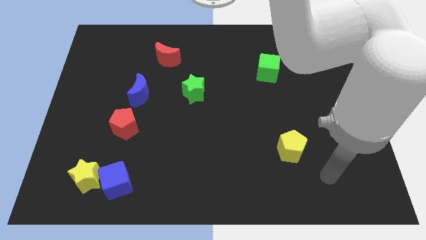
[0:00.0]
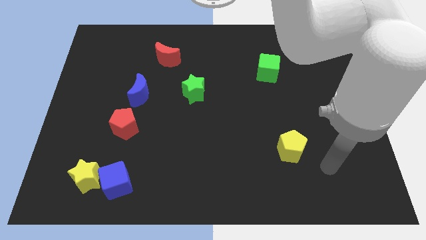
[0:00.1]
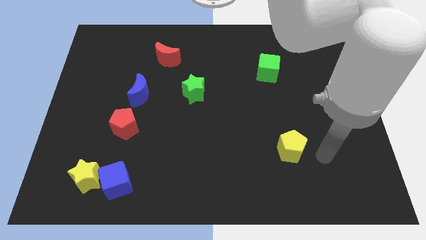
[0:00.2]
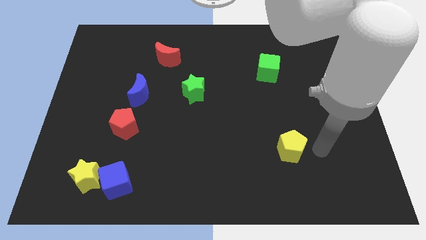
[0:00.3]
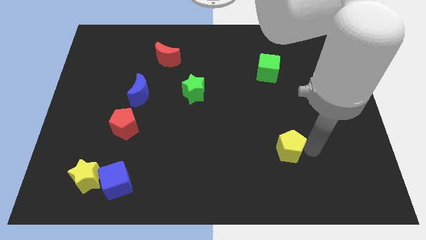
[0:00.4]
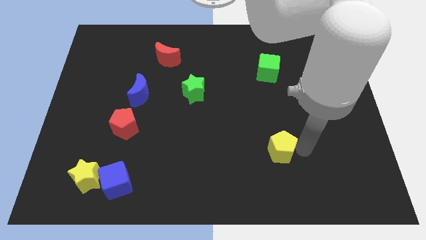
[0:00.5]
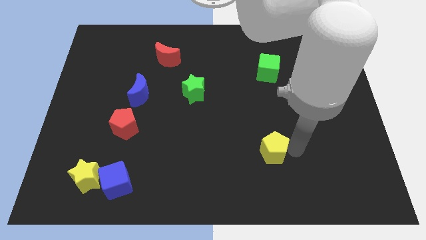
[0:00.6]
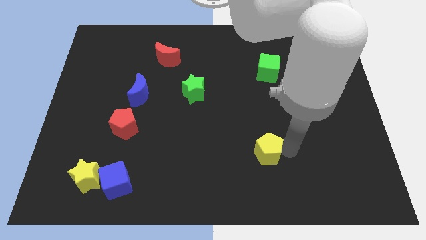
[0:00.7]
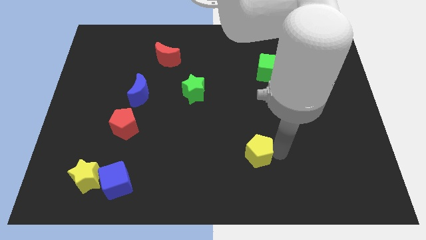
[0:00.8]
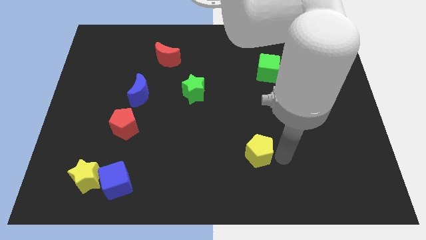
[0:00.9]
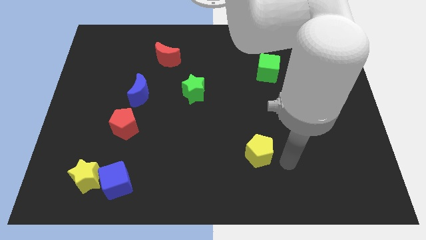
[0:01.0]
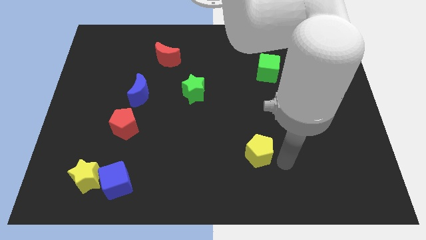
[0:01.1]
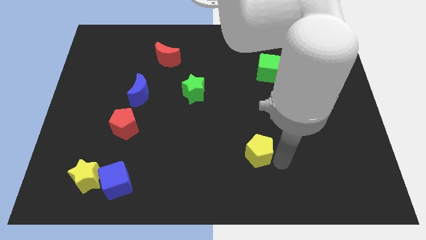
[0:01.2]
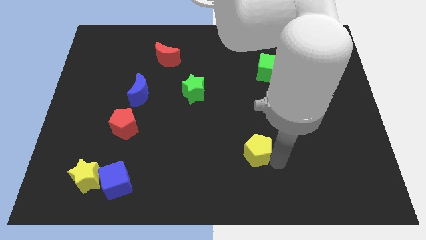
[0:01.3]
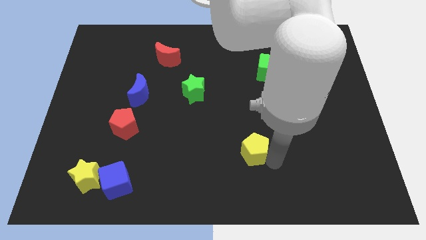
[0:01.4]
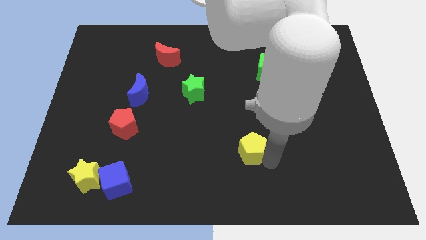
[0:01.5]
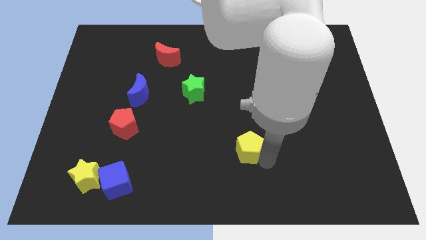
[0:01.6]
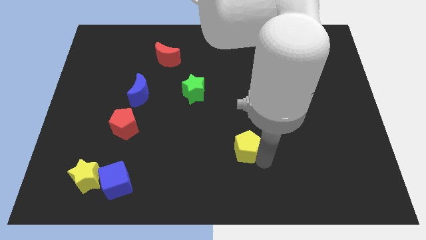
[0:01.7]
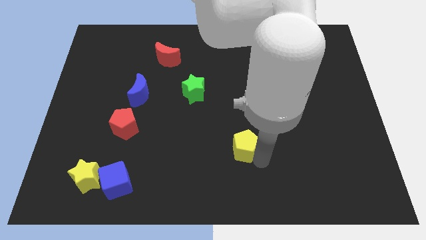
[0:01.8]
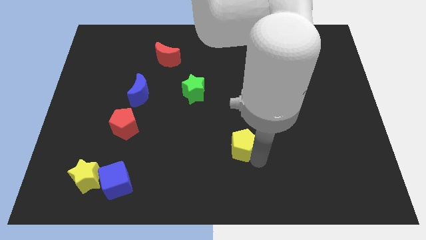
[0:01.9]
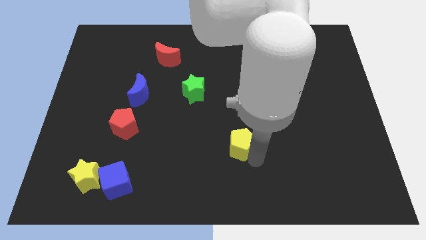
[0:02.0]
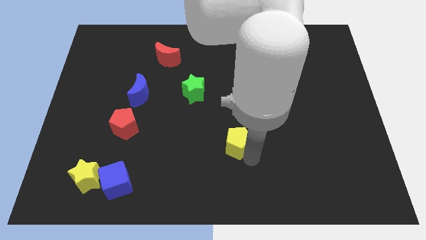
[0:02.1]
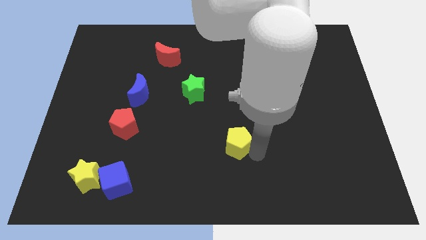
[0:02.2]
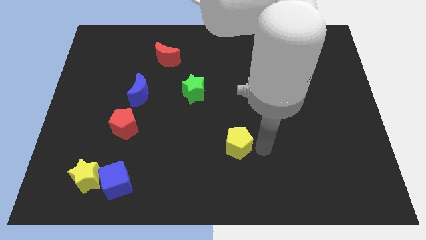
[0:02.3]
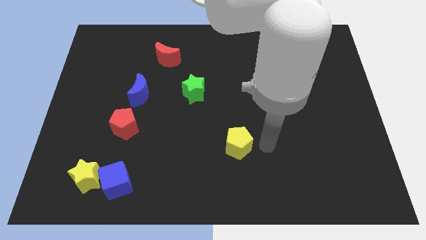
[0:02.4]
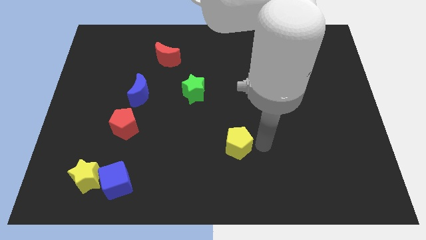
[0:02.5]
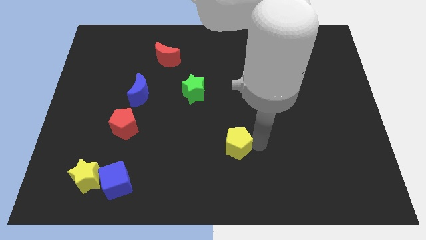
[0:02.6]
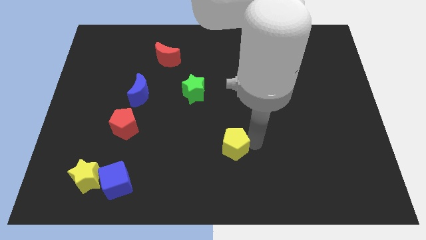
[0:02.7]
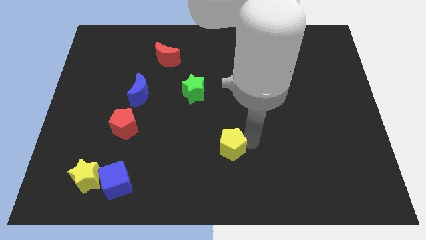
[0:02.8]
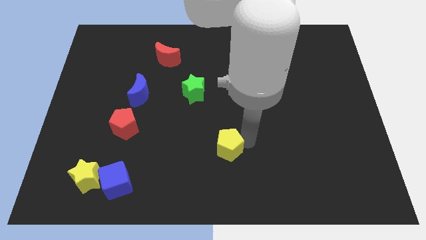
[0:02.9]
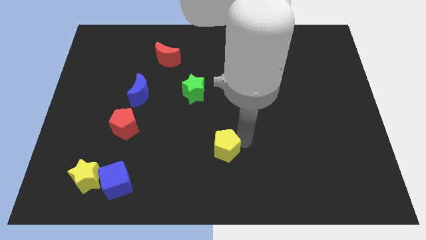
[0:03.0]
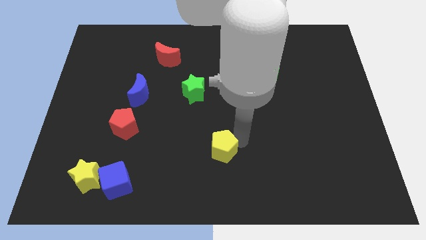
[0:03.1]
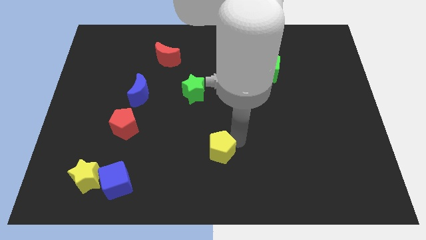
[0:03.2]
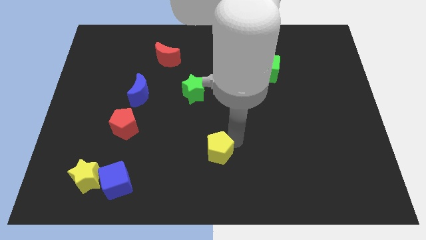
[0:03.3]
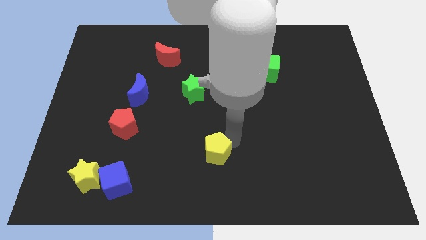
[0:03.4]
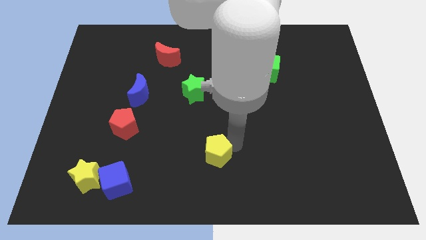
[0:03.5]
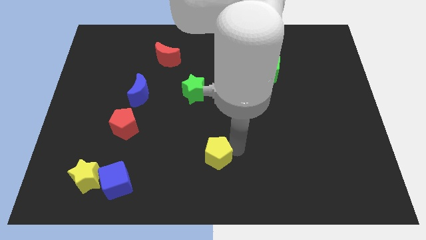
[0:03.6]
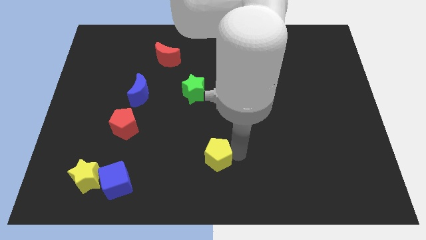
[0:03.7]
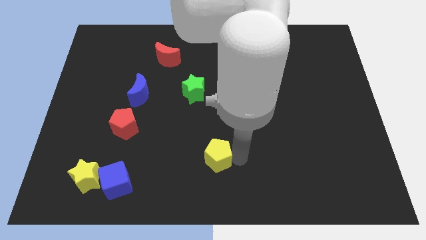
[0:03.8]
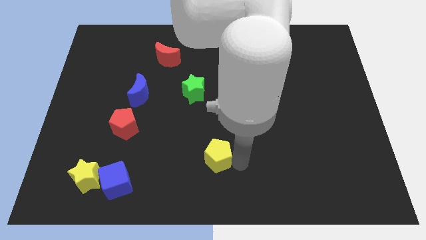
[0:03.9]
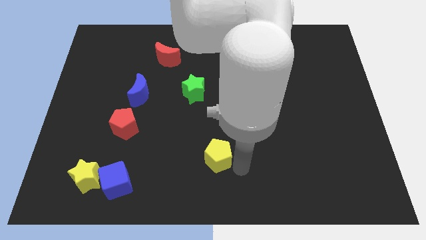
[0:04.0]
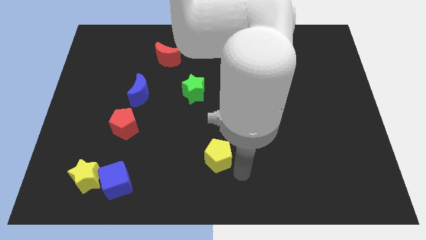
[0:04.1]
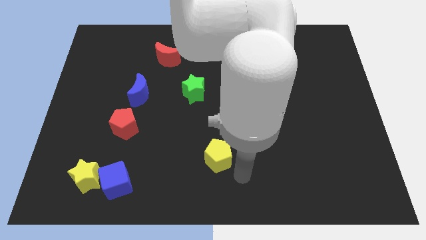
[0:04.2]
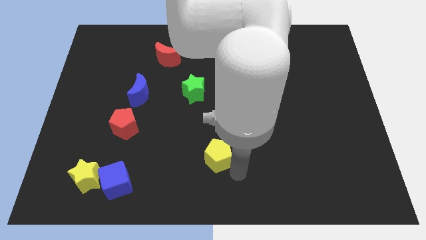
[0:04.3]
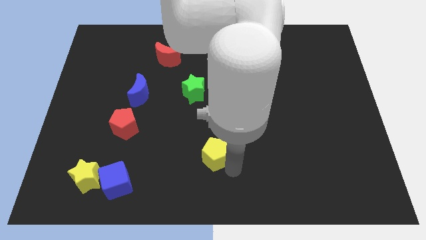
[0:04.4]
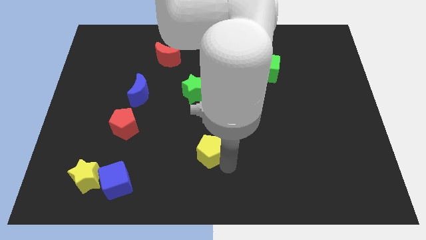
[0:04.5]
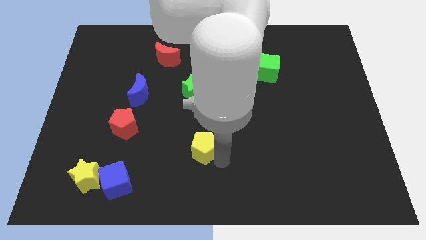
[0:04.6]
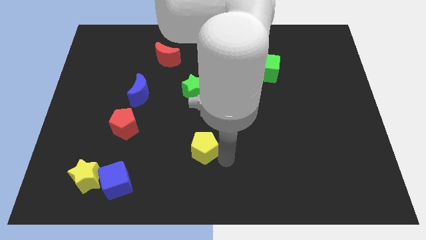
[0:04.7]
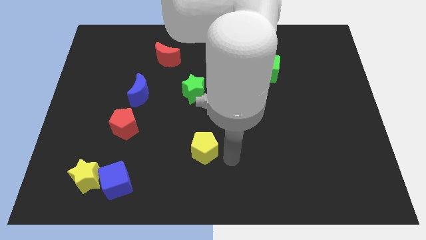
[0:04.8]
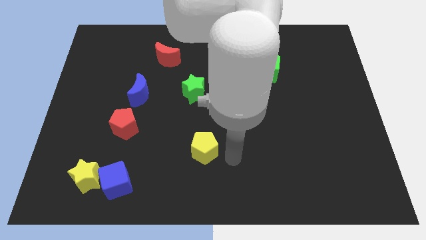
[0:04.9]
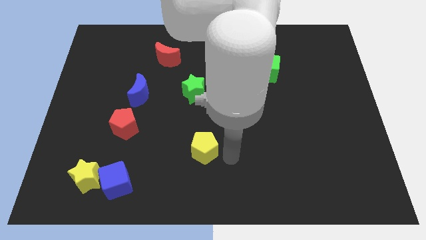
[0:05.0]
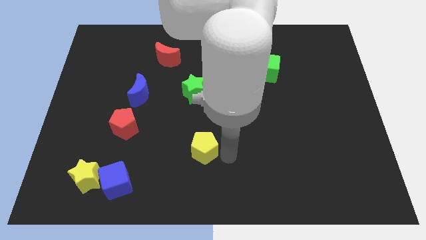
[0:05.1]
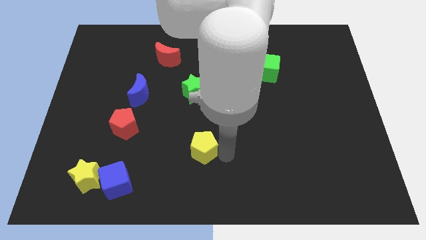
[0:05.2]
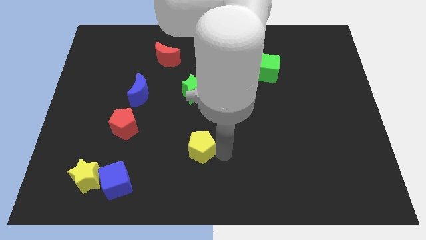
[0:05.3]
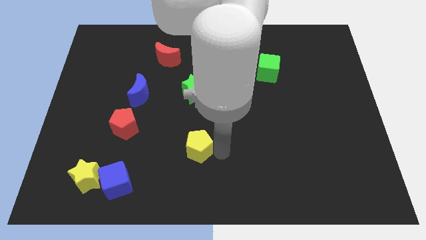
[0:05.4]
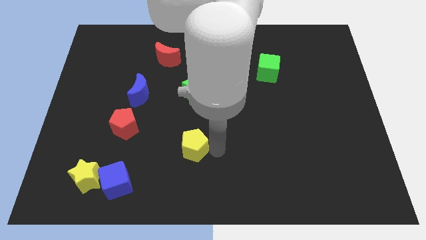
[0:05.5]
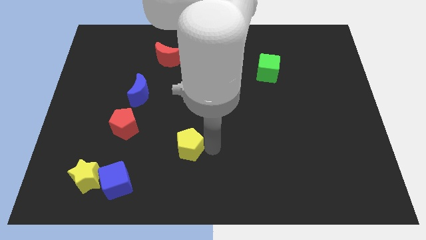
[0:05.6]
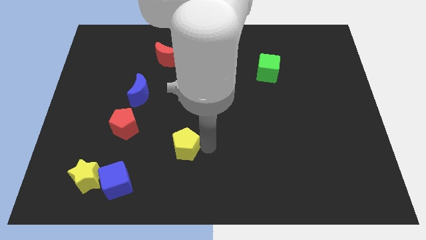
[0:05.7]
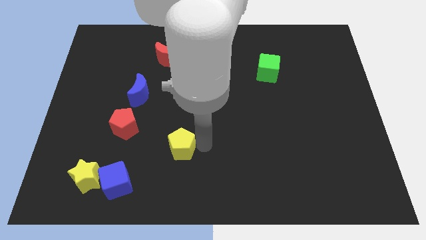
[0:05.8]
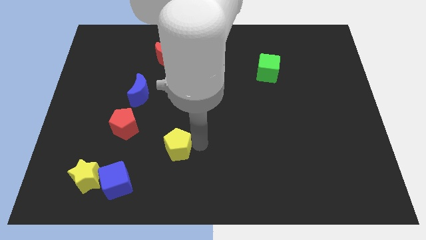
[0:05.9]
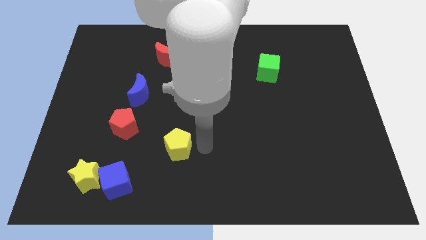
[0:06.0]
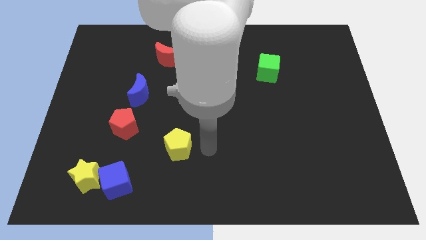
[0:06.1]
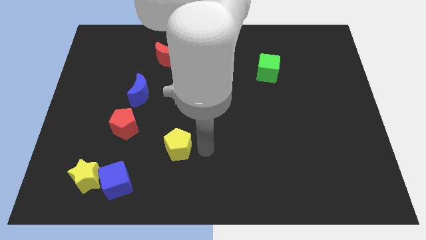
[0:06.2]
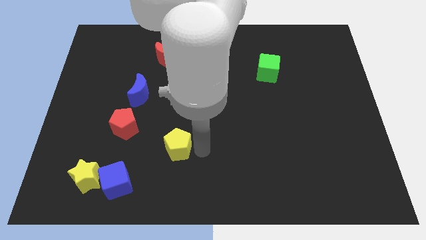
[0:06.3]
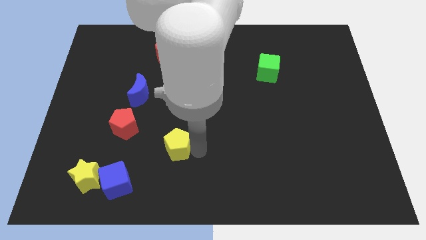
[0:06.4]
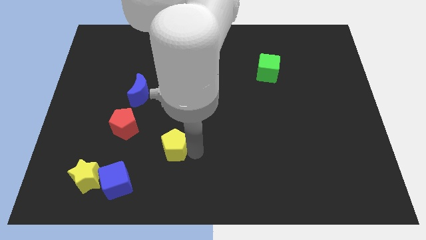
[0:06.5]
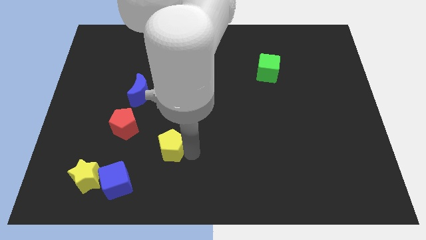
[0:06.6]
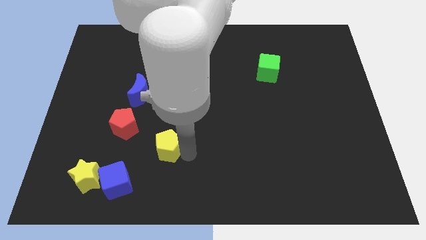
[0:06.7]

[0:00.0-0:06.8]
move the yellow pentagon to the bottom right side of the red pentagon
